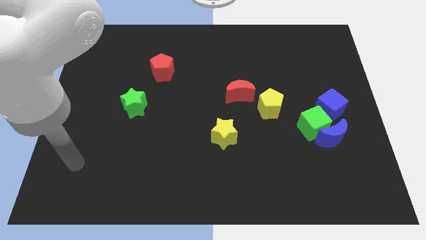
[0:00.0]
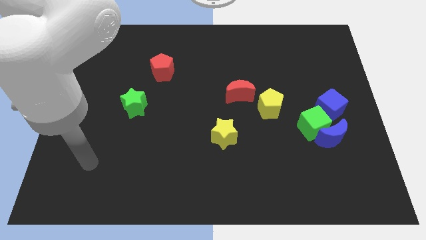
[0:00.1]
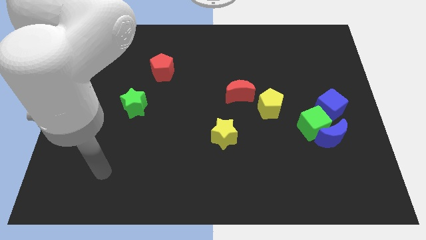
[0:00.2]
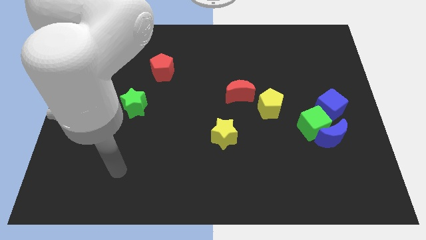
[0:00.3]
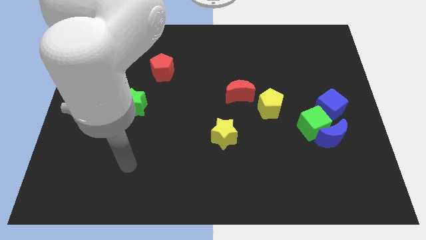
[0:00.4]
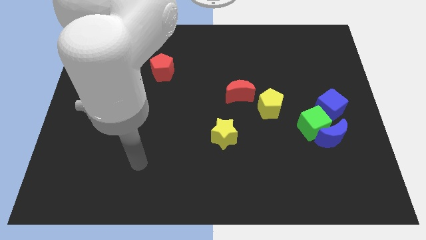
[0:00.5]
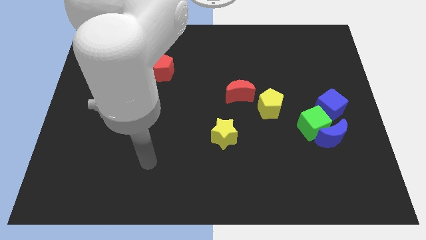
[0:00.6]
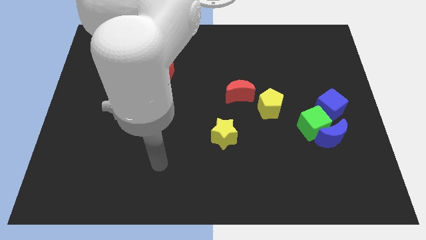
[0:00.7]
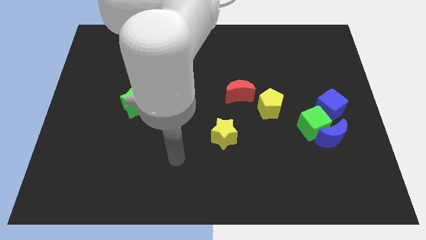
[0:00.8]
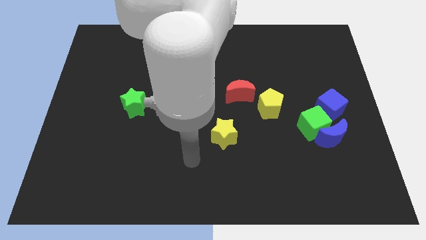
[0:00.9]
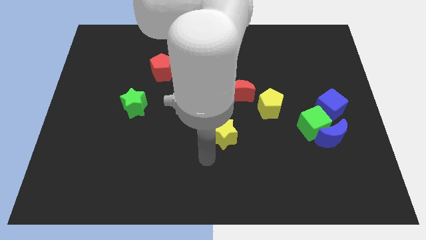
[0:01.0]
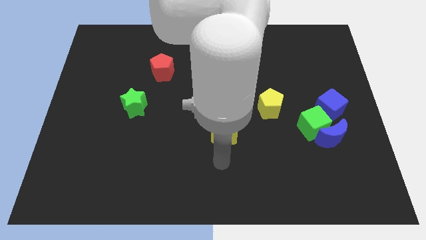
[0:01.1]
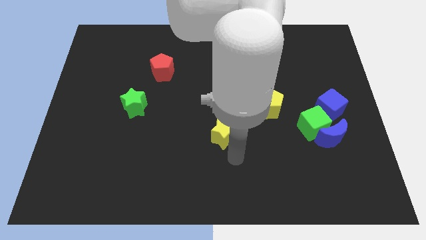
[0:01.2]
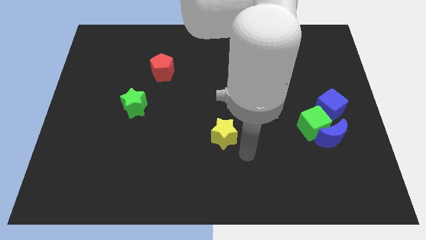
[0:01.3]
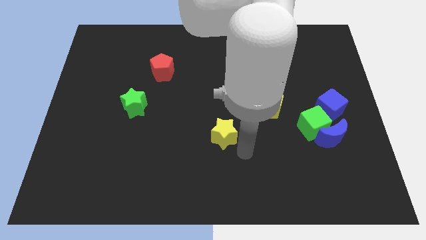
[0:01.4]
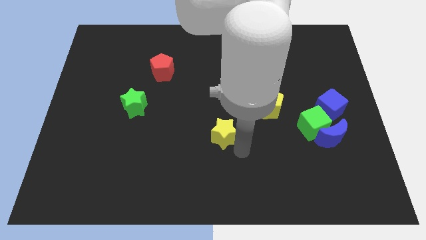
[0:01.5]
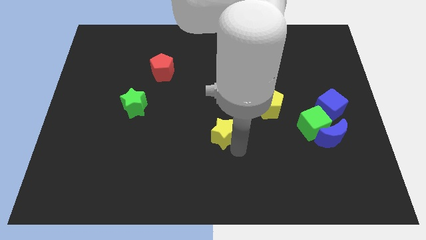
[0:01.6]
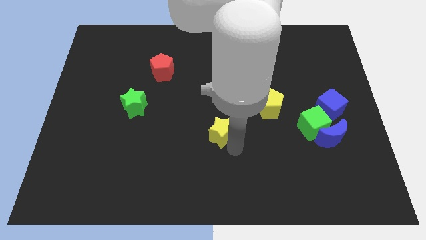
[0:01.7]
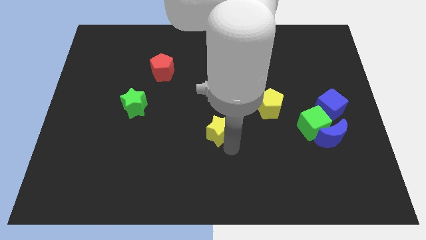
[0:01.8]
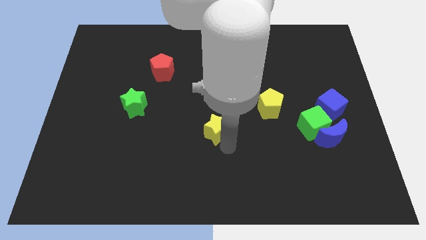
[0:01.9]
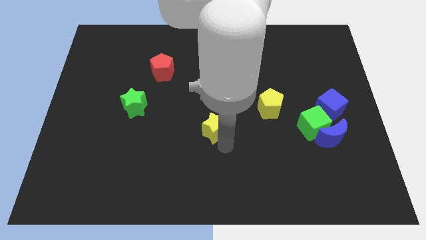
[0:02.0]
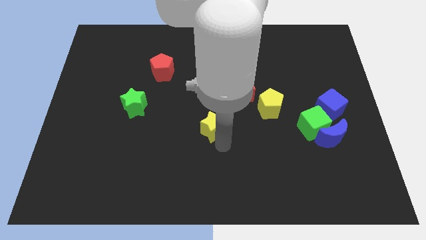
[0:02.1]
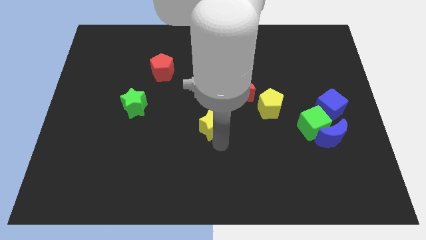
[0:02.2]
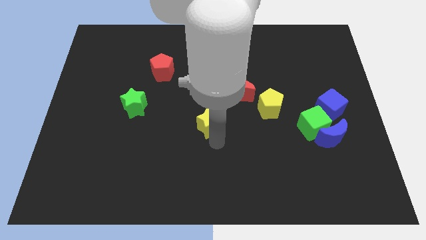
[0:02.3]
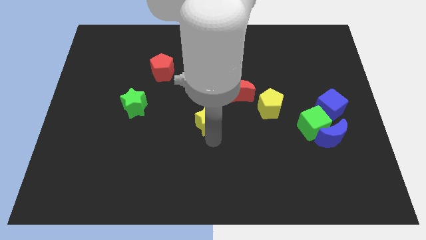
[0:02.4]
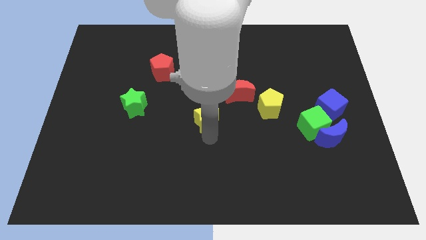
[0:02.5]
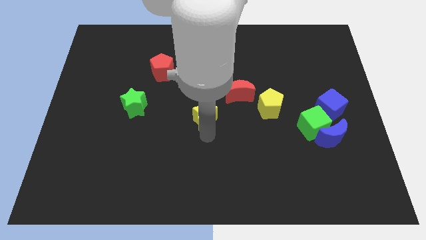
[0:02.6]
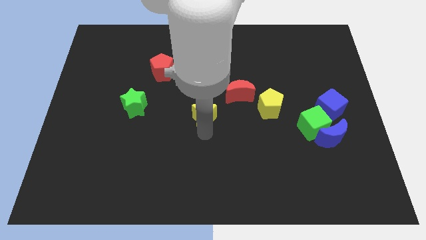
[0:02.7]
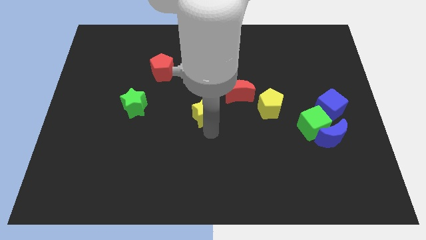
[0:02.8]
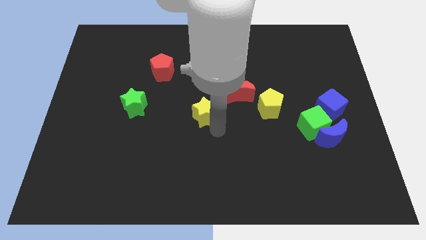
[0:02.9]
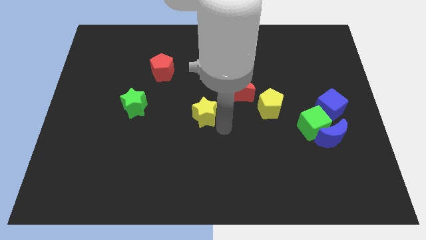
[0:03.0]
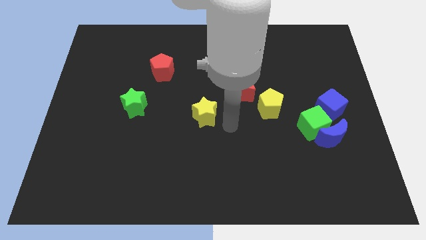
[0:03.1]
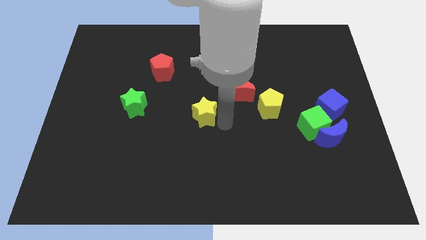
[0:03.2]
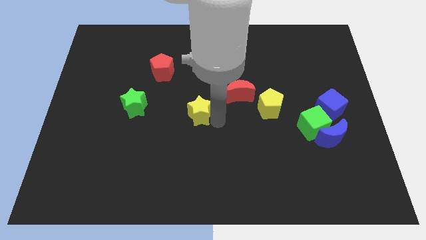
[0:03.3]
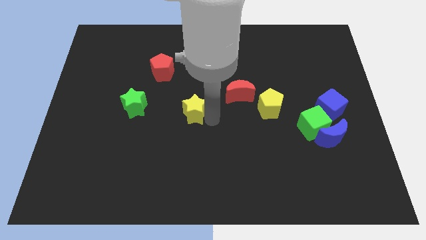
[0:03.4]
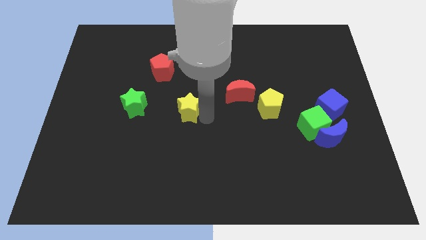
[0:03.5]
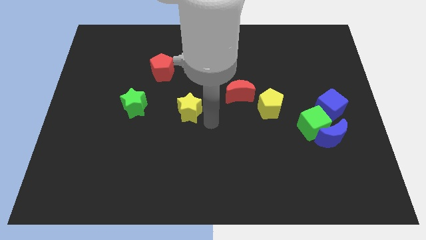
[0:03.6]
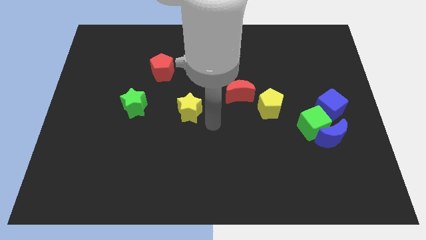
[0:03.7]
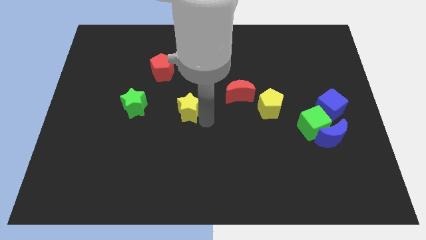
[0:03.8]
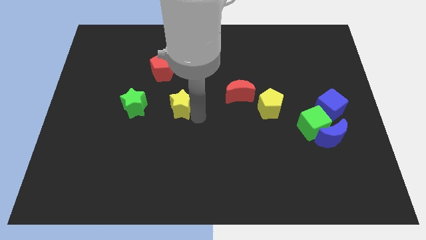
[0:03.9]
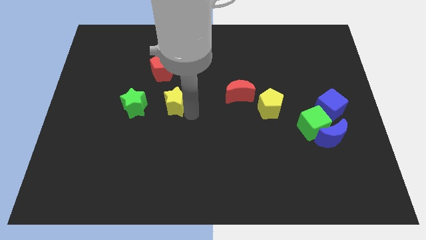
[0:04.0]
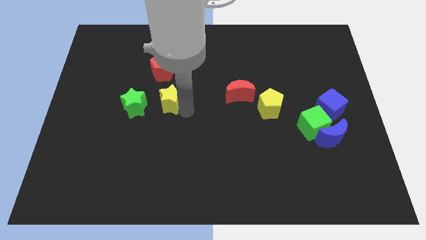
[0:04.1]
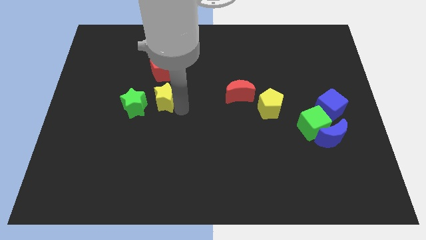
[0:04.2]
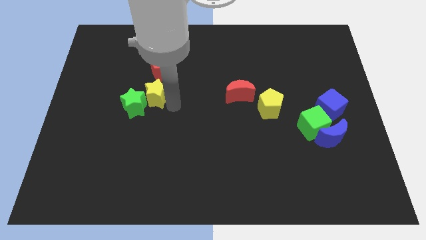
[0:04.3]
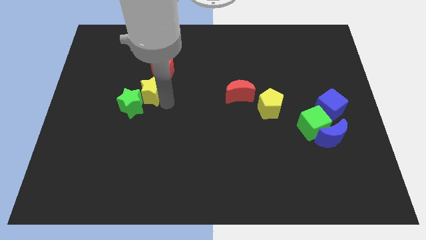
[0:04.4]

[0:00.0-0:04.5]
slide the yellow star diagonally down and to the left of the red pentagon

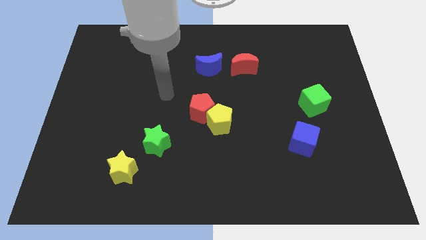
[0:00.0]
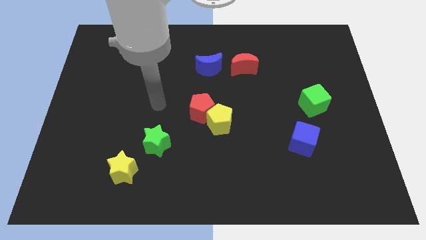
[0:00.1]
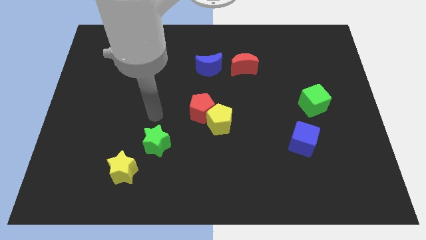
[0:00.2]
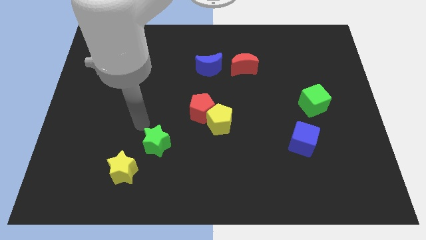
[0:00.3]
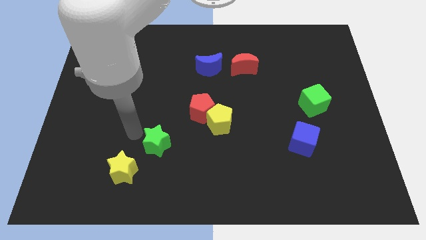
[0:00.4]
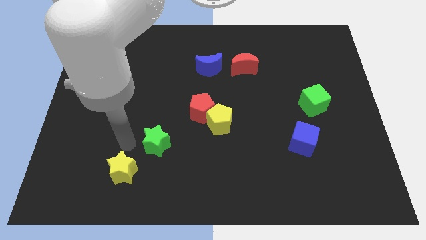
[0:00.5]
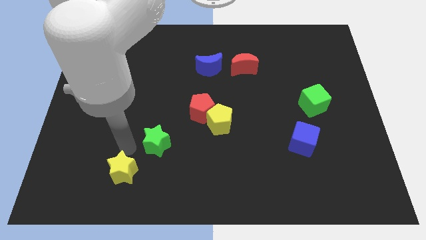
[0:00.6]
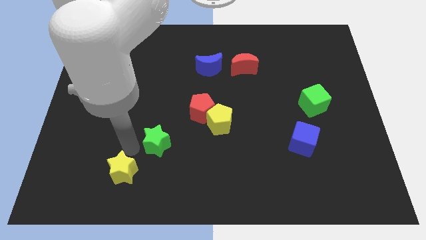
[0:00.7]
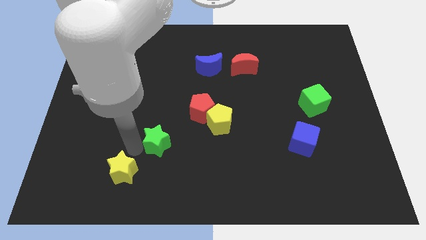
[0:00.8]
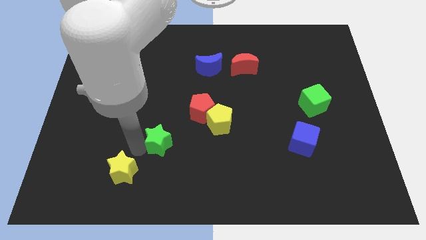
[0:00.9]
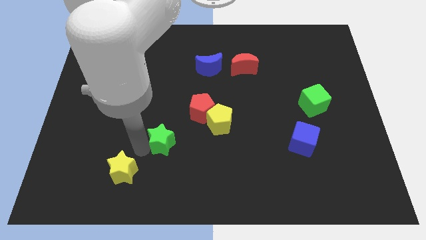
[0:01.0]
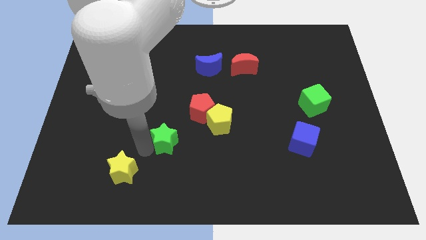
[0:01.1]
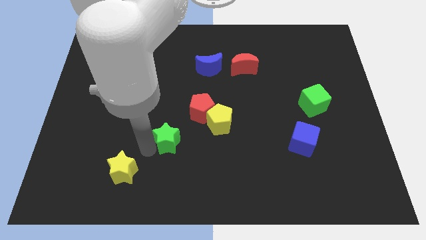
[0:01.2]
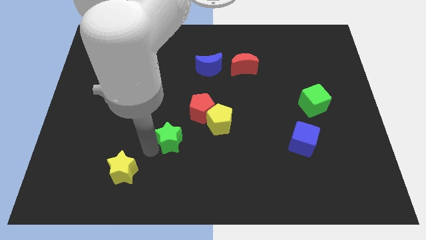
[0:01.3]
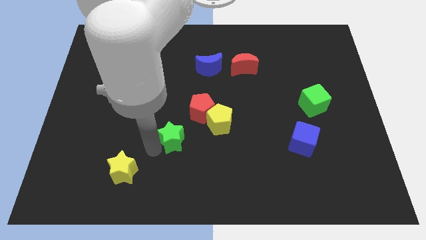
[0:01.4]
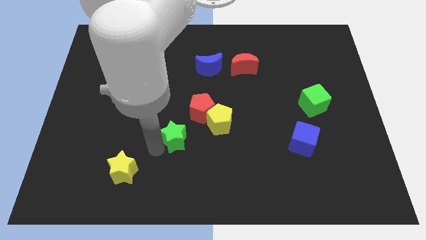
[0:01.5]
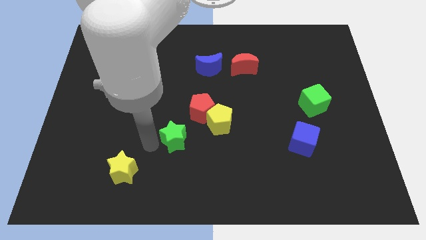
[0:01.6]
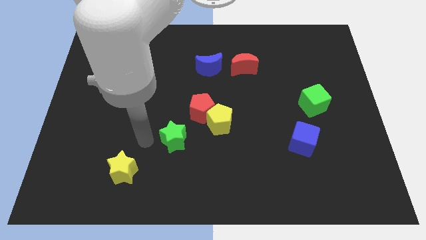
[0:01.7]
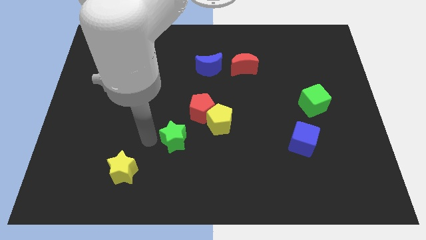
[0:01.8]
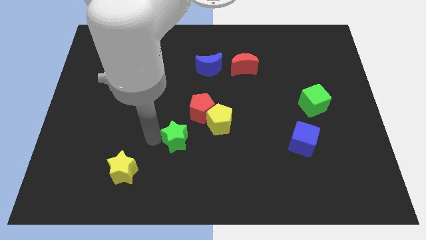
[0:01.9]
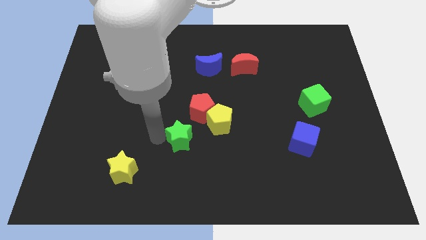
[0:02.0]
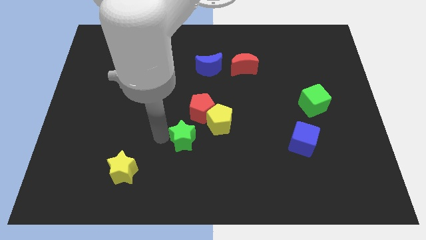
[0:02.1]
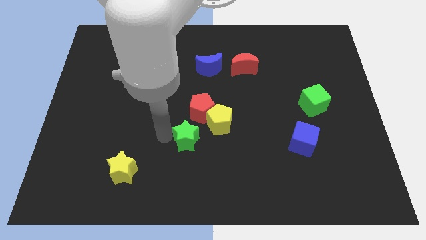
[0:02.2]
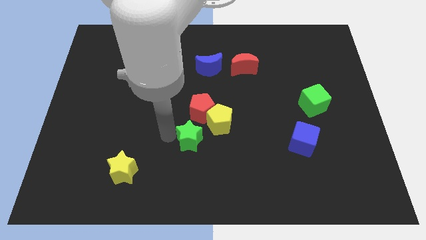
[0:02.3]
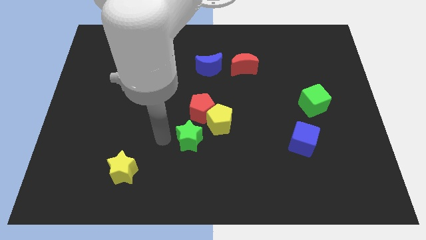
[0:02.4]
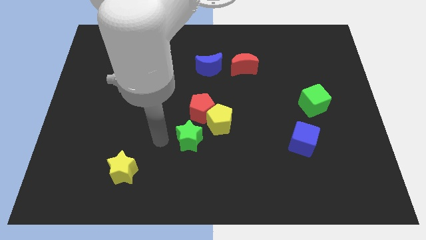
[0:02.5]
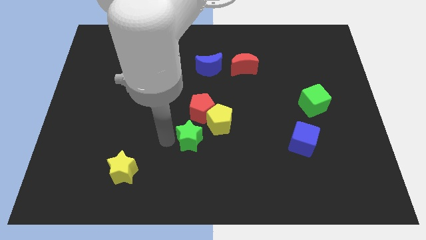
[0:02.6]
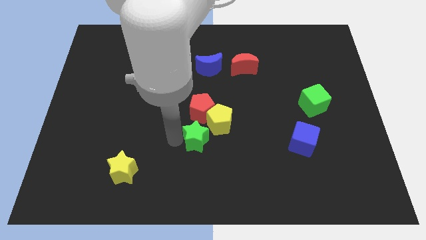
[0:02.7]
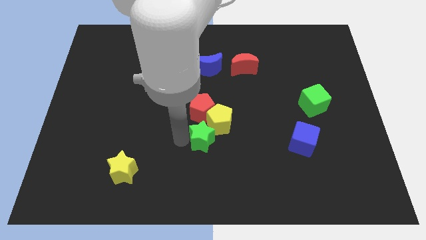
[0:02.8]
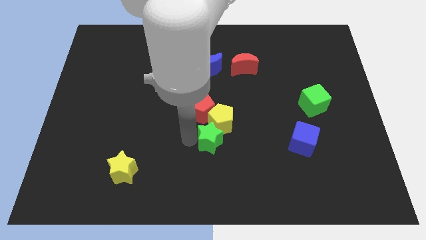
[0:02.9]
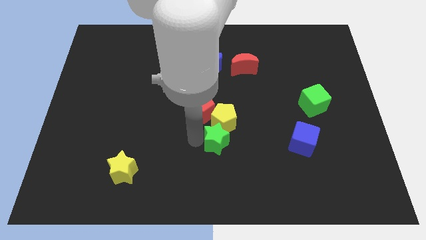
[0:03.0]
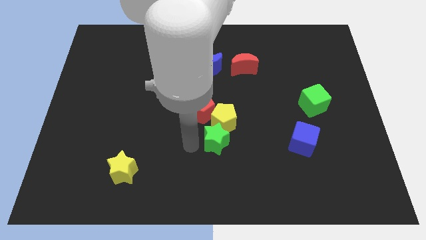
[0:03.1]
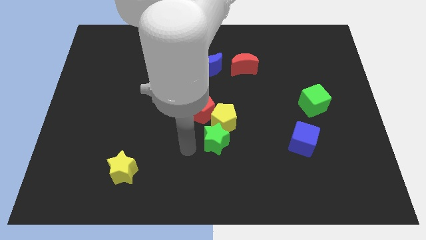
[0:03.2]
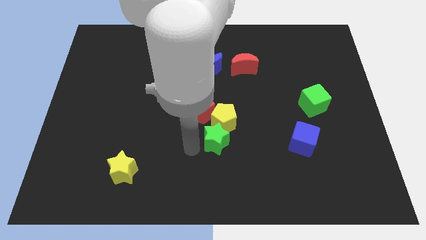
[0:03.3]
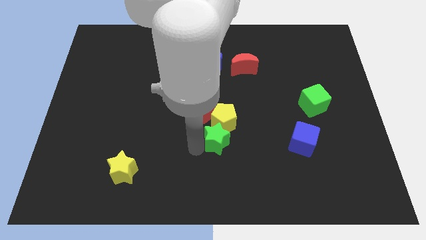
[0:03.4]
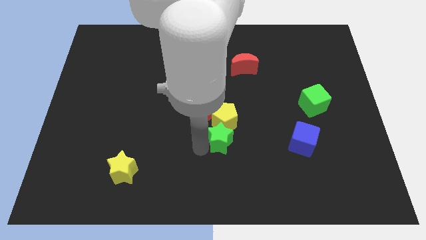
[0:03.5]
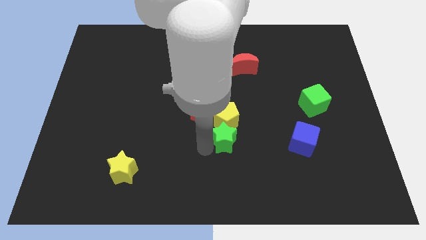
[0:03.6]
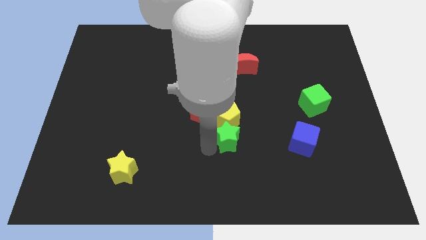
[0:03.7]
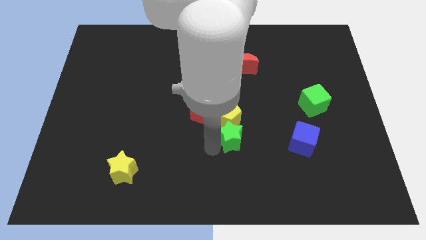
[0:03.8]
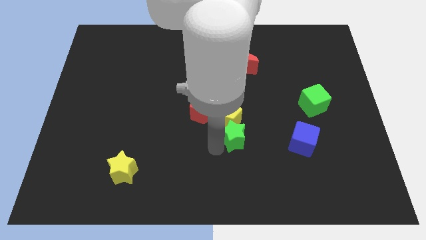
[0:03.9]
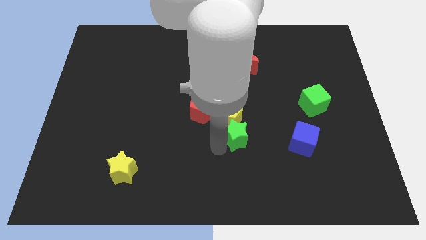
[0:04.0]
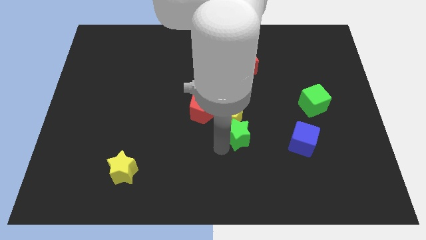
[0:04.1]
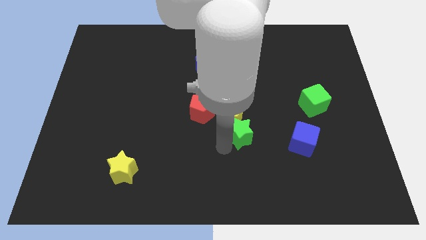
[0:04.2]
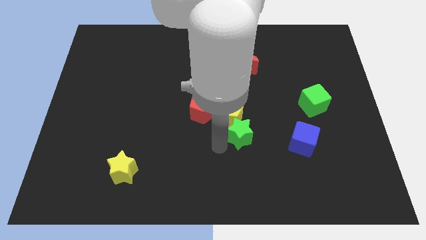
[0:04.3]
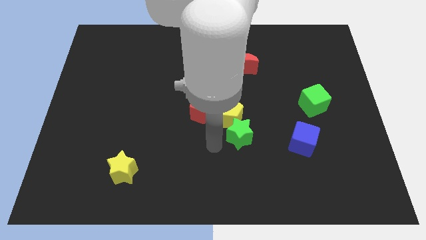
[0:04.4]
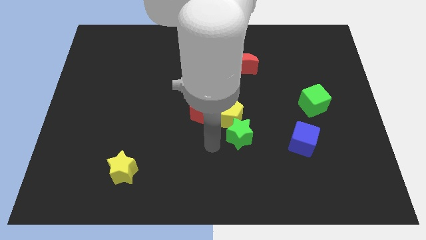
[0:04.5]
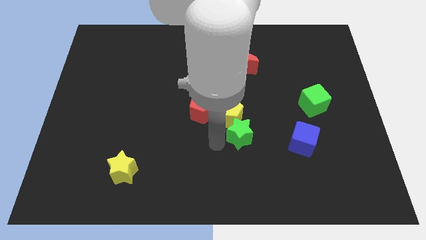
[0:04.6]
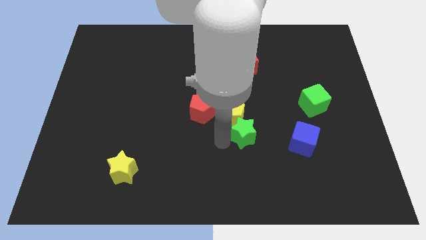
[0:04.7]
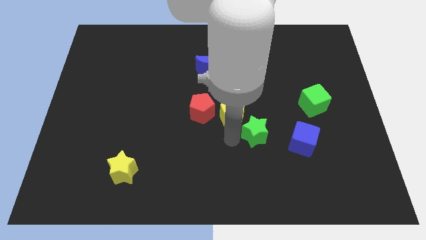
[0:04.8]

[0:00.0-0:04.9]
push the green star just right of the yellow pentagon
